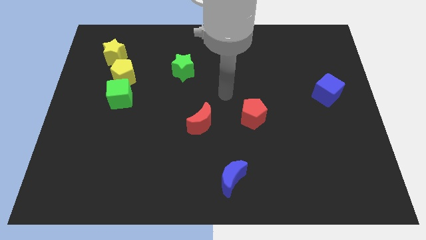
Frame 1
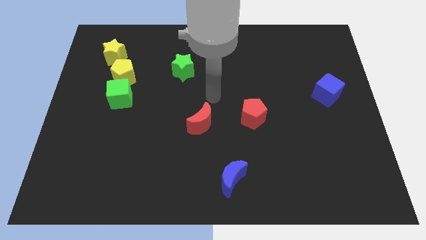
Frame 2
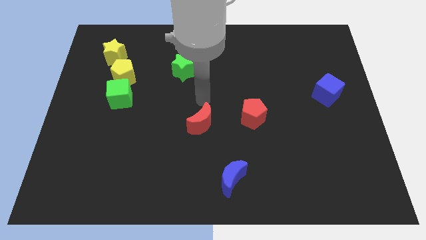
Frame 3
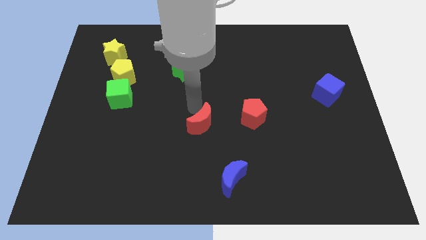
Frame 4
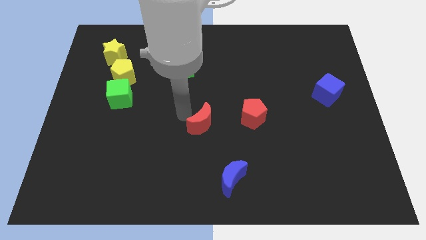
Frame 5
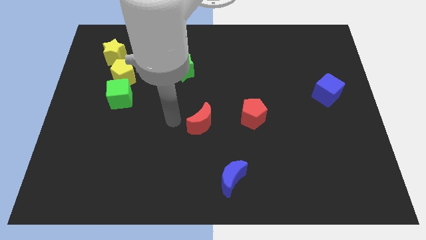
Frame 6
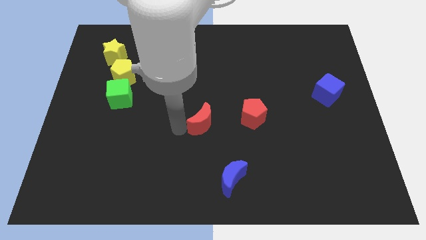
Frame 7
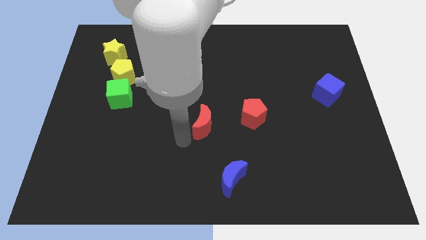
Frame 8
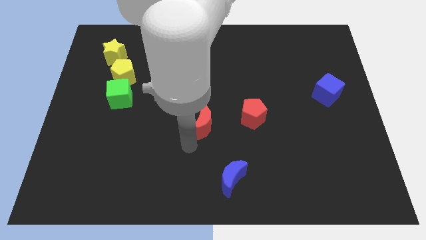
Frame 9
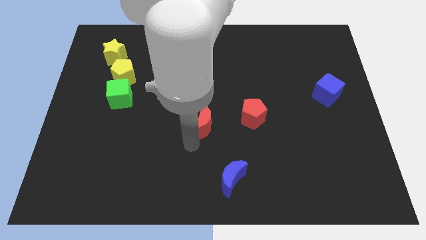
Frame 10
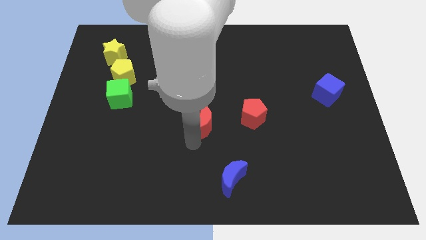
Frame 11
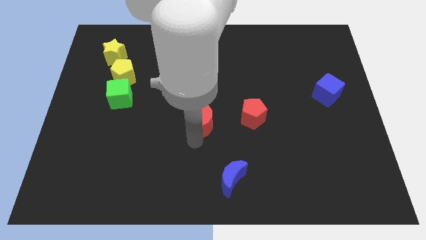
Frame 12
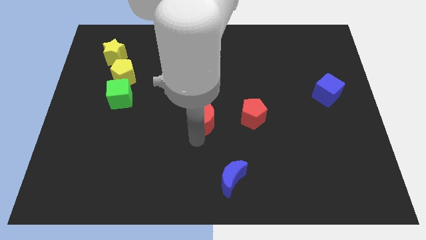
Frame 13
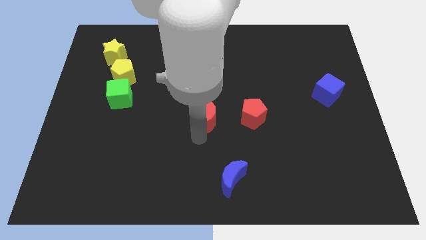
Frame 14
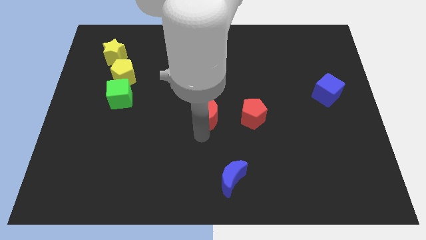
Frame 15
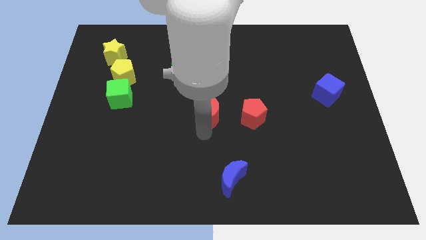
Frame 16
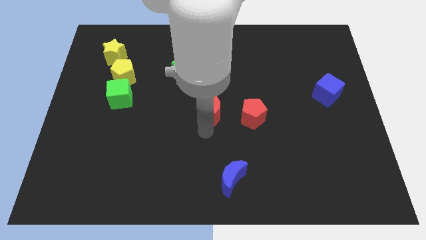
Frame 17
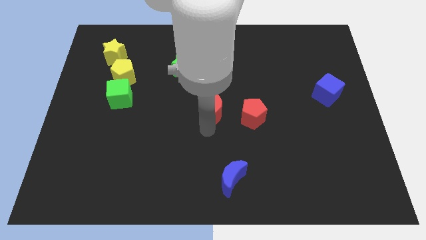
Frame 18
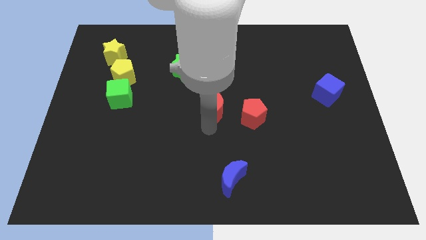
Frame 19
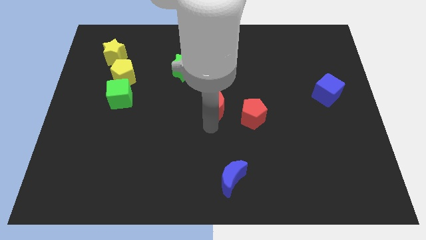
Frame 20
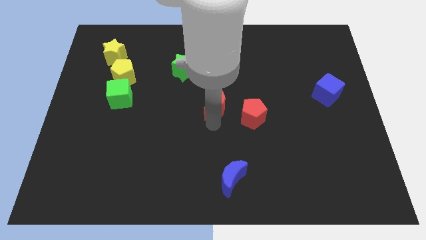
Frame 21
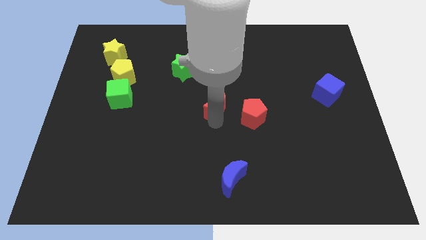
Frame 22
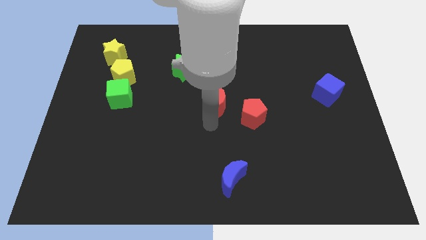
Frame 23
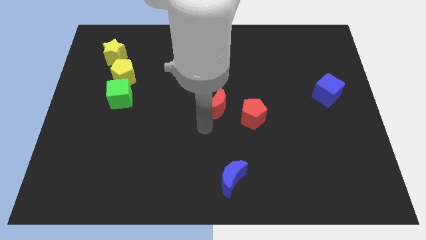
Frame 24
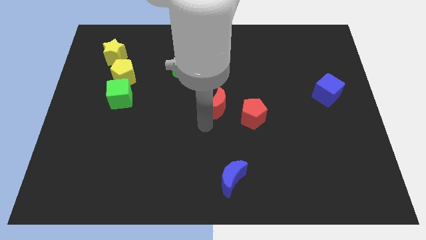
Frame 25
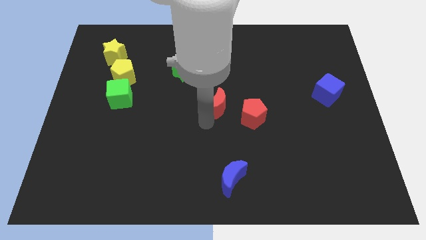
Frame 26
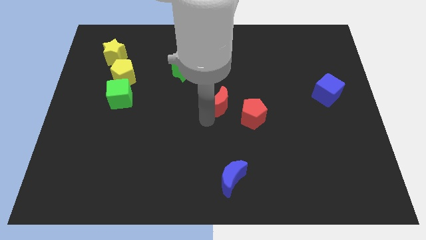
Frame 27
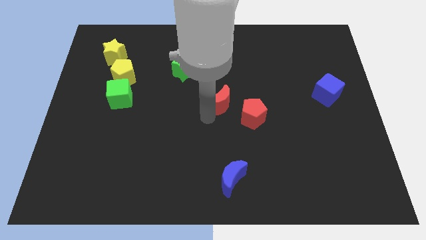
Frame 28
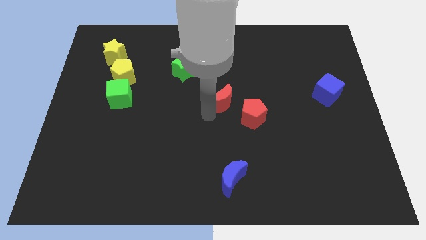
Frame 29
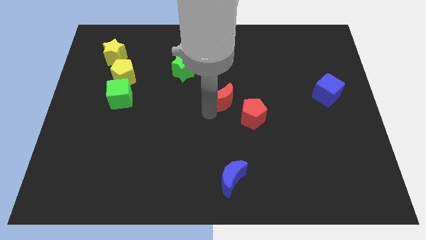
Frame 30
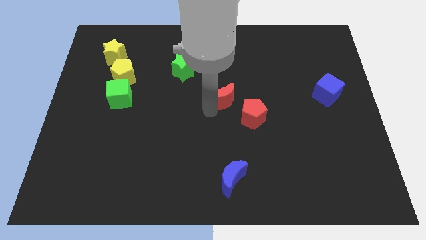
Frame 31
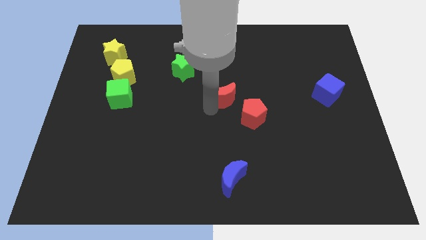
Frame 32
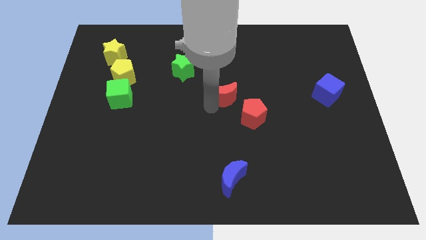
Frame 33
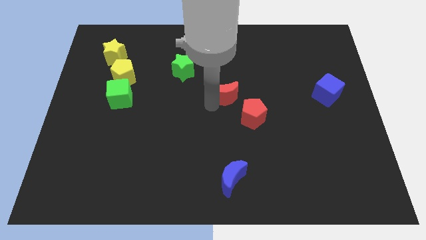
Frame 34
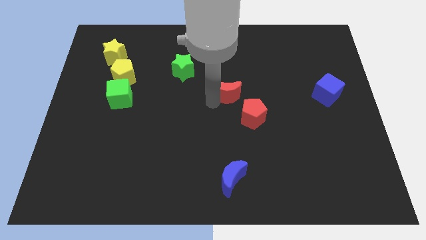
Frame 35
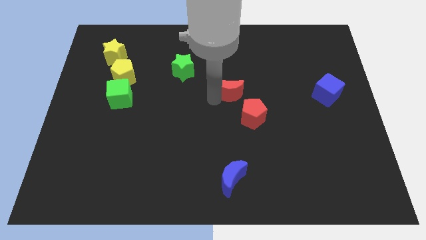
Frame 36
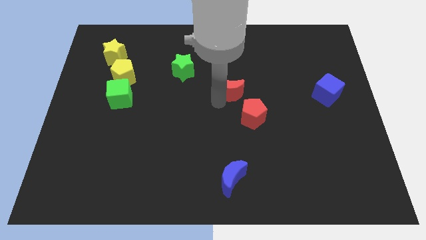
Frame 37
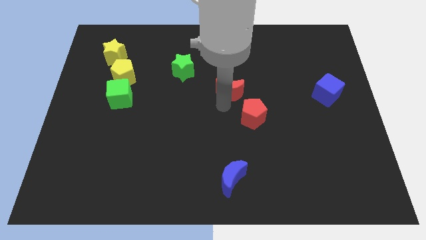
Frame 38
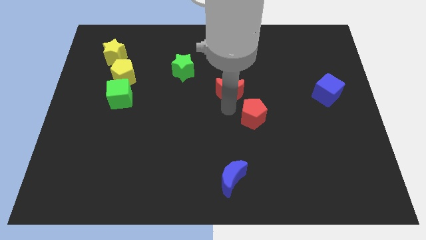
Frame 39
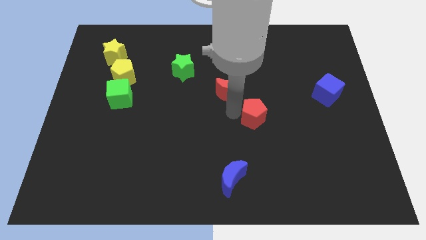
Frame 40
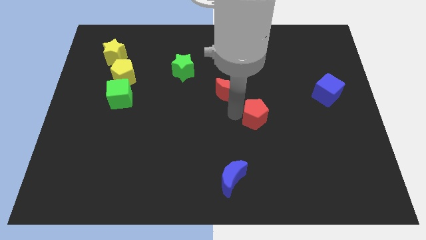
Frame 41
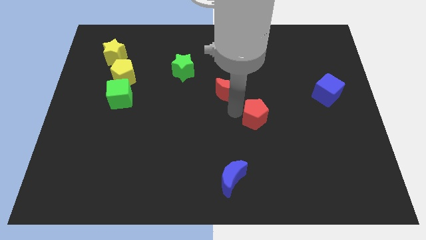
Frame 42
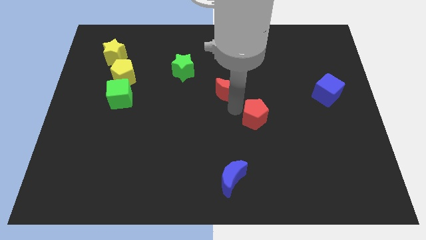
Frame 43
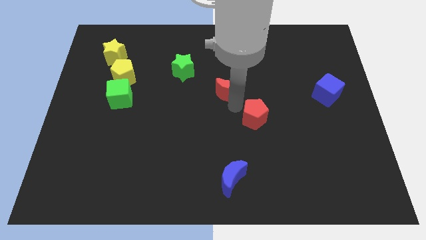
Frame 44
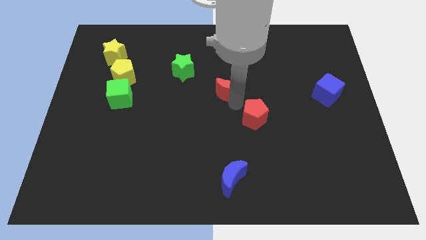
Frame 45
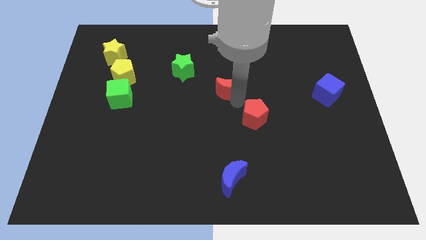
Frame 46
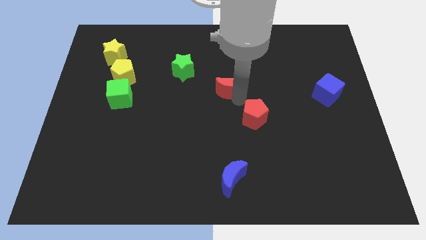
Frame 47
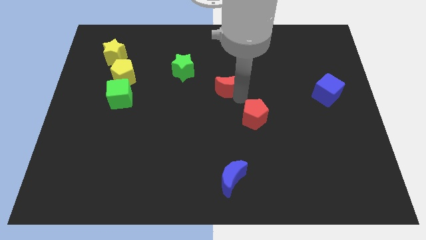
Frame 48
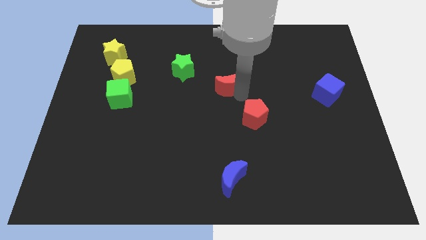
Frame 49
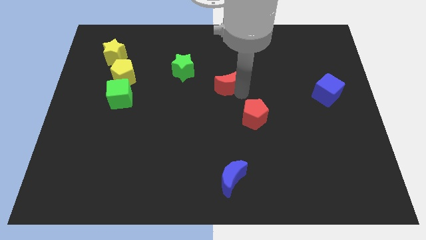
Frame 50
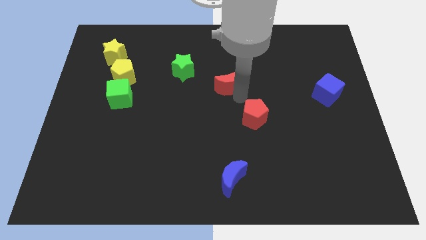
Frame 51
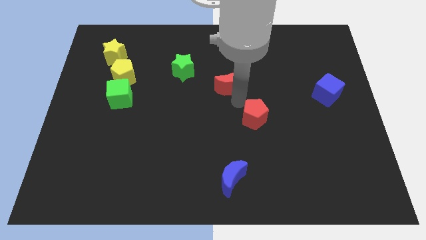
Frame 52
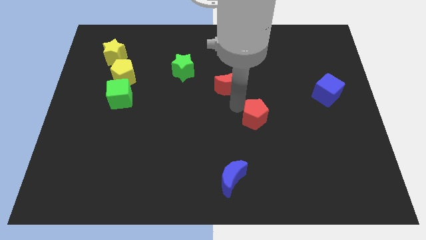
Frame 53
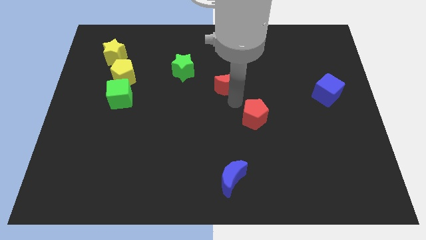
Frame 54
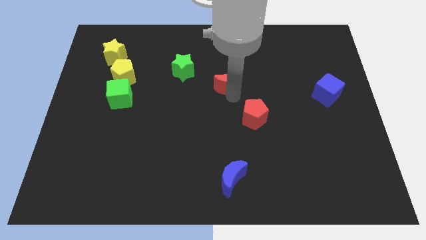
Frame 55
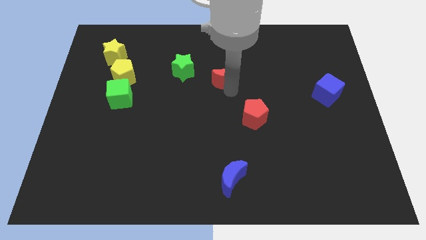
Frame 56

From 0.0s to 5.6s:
push the red moon just right of the green star

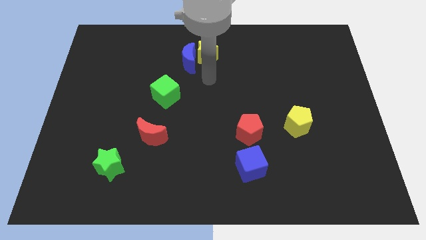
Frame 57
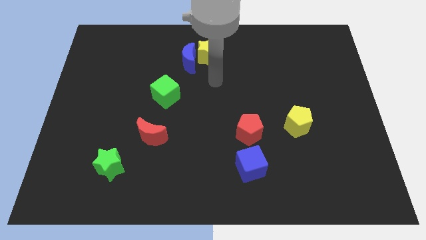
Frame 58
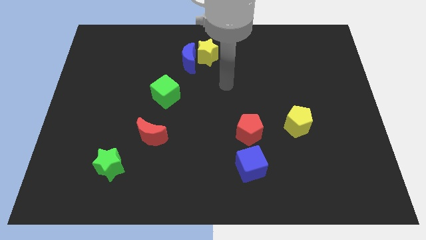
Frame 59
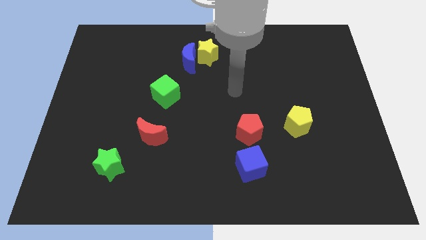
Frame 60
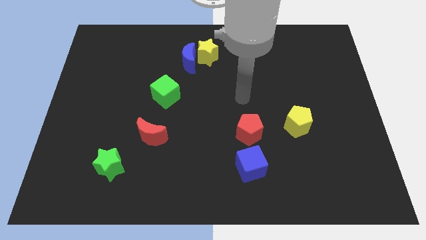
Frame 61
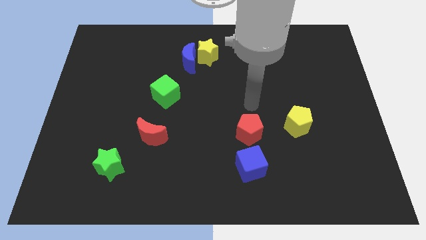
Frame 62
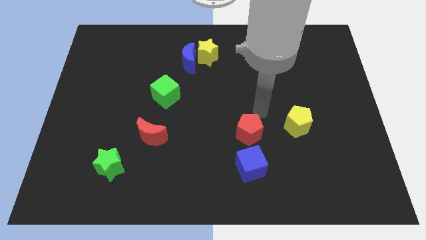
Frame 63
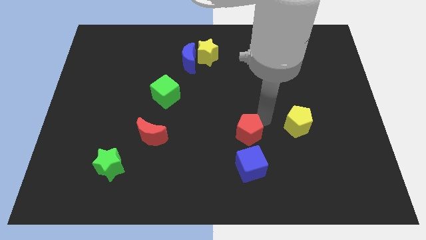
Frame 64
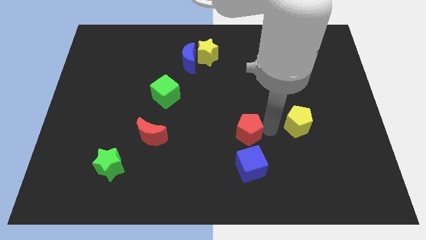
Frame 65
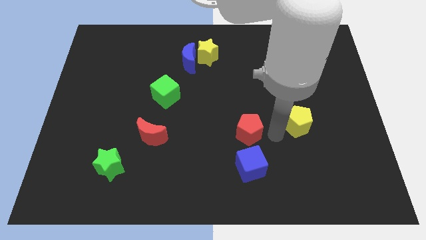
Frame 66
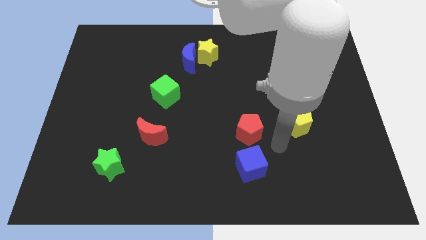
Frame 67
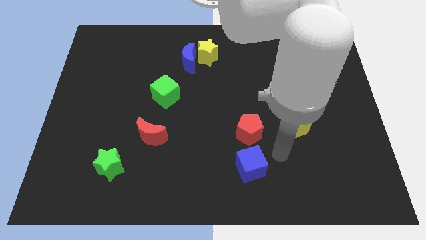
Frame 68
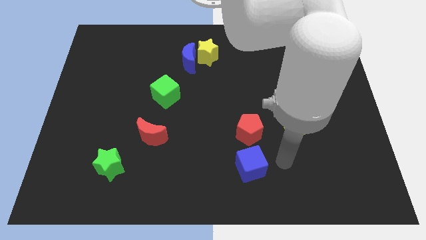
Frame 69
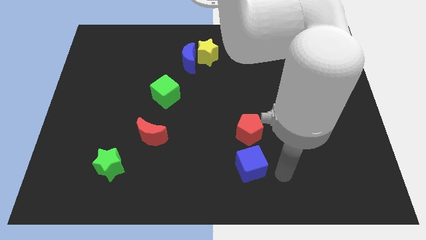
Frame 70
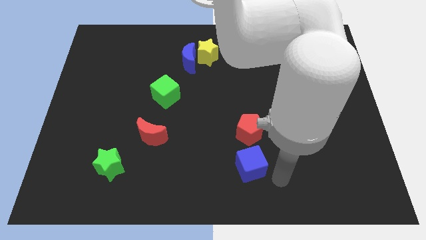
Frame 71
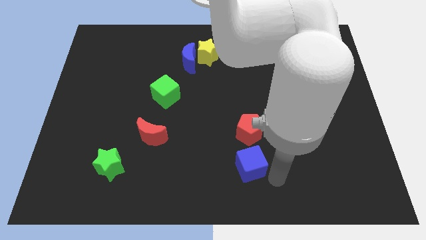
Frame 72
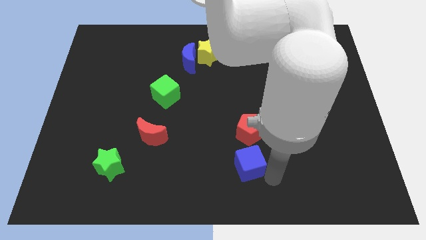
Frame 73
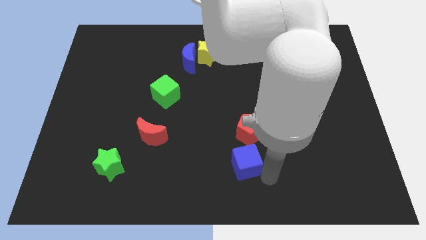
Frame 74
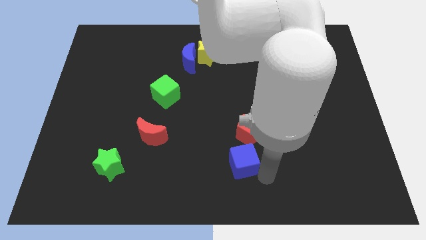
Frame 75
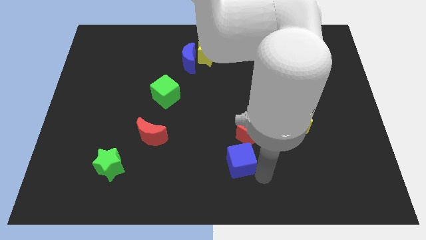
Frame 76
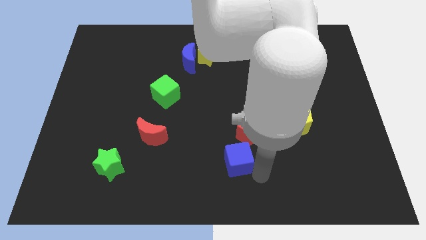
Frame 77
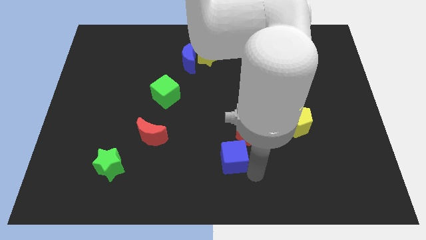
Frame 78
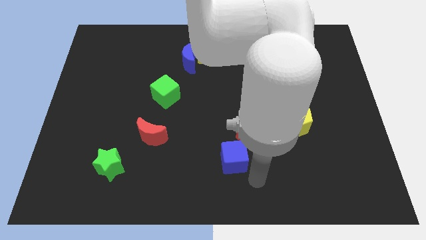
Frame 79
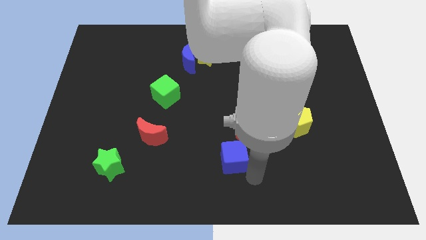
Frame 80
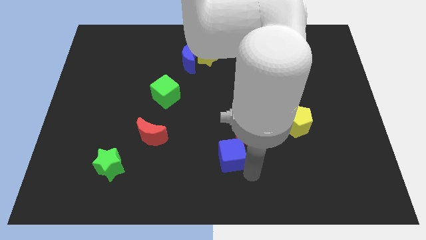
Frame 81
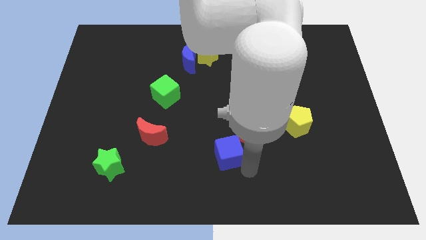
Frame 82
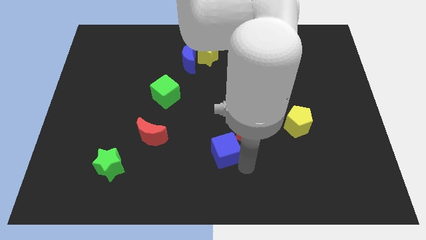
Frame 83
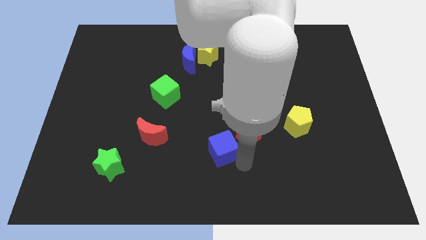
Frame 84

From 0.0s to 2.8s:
push the blue cube to the left side of the red pentagon
